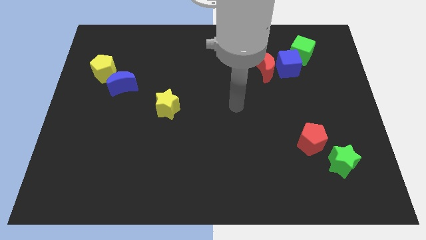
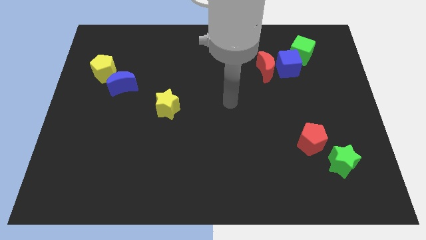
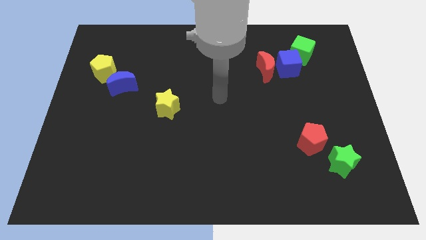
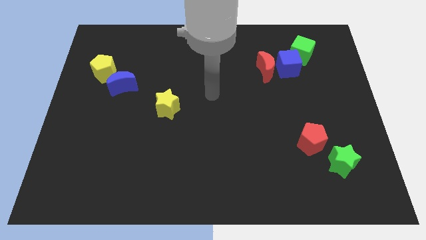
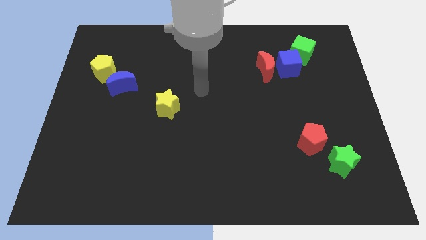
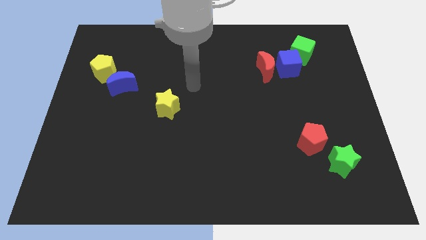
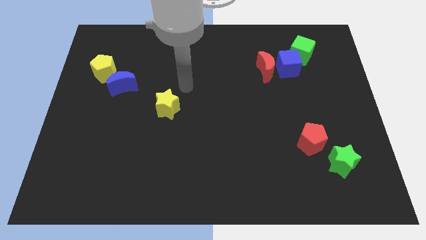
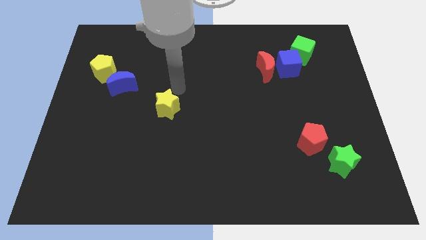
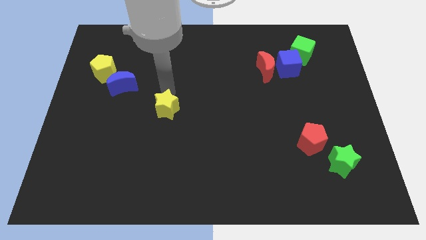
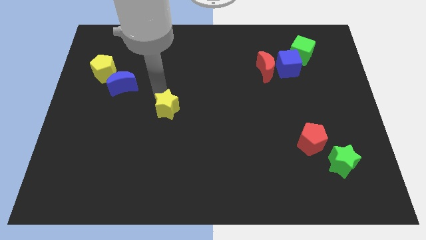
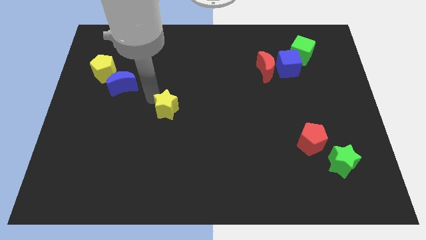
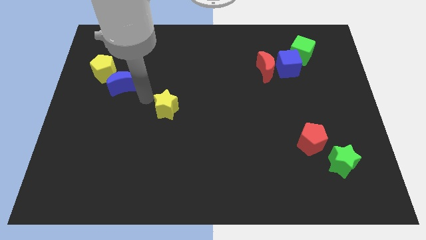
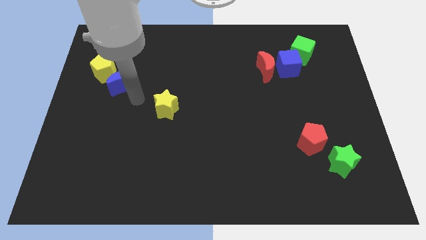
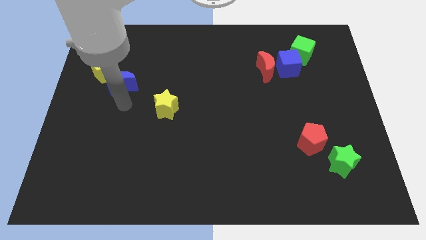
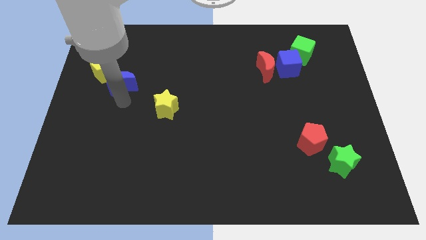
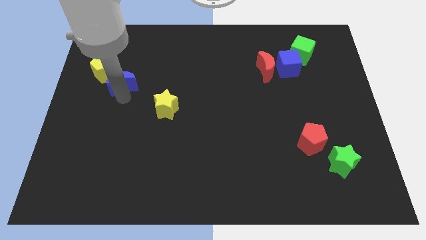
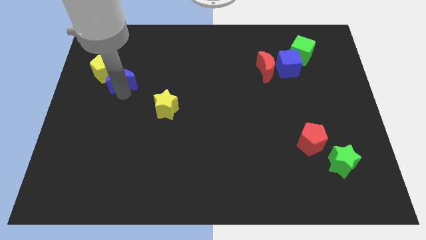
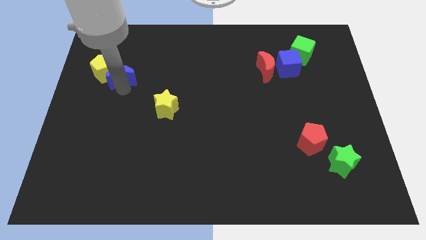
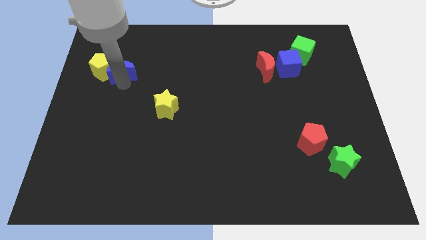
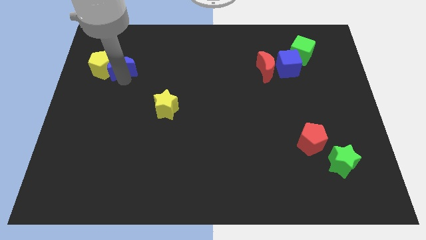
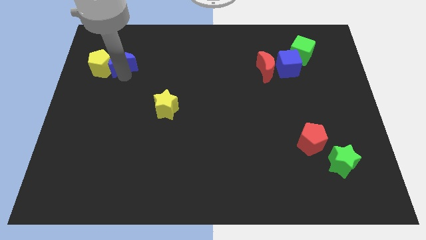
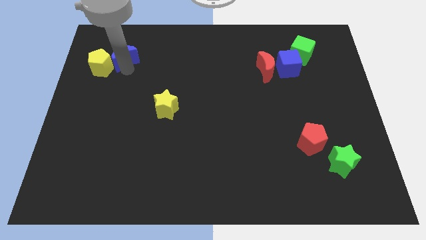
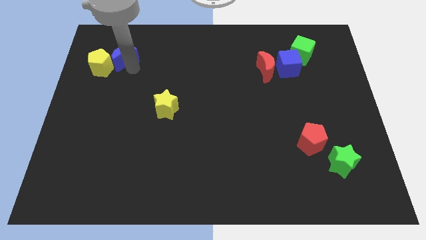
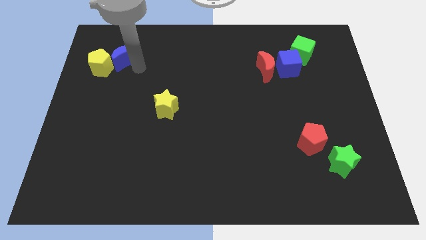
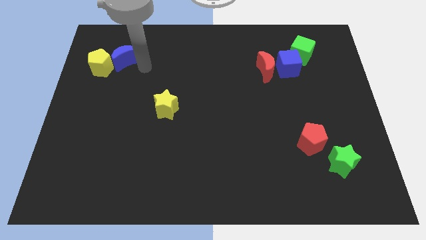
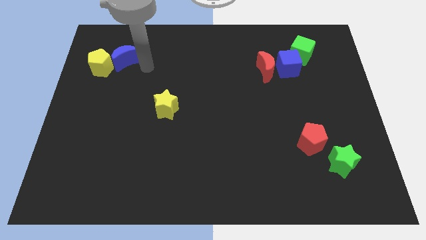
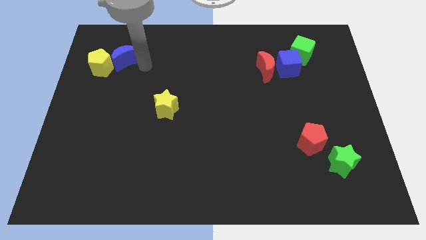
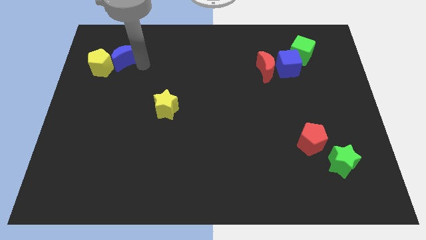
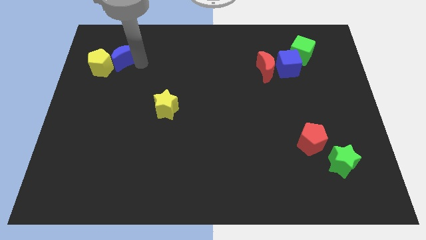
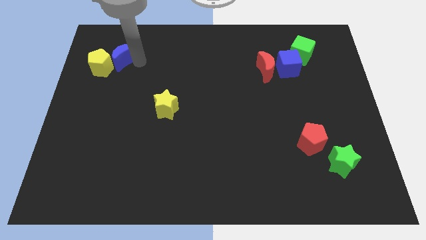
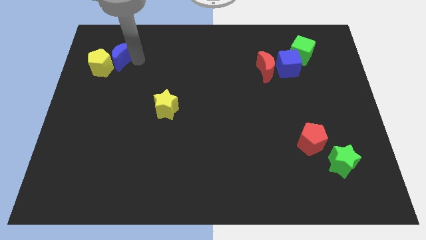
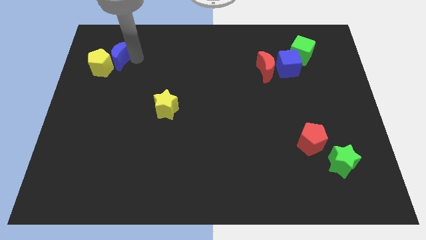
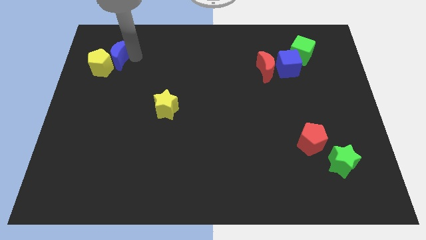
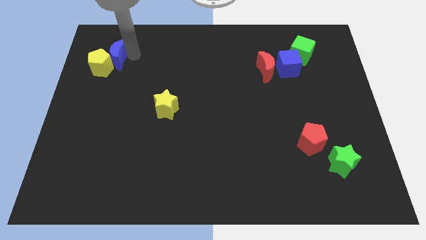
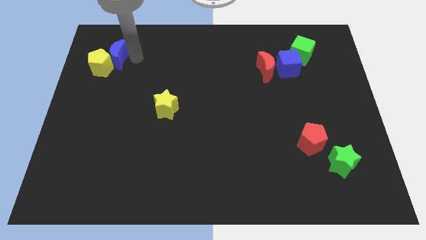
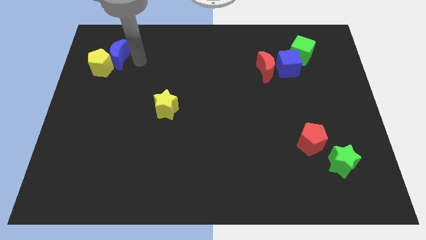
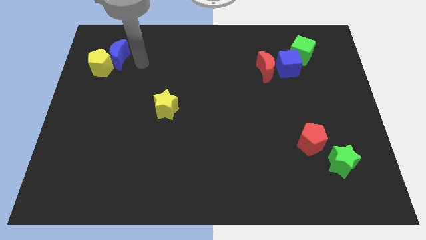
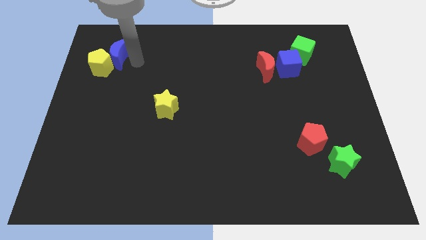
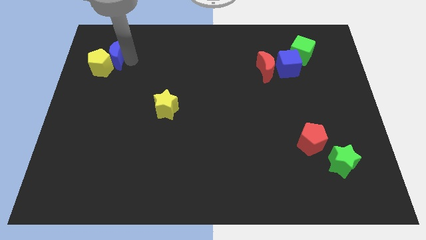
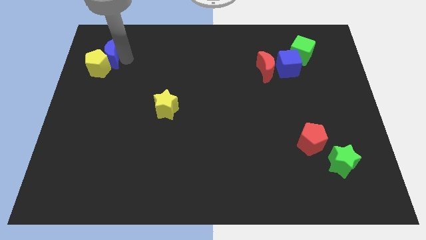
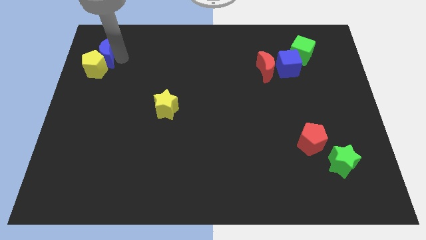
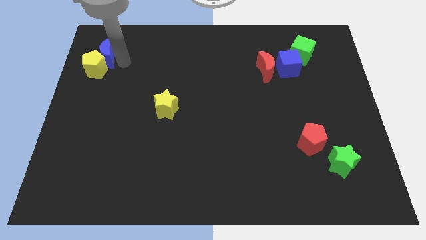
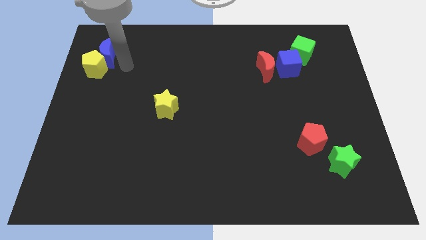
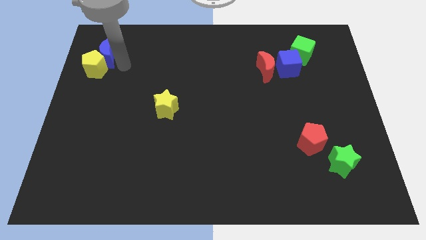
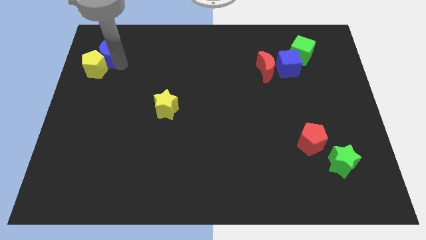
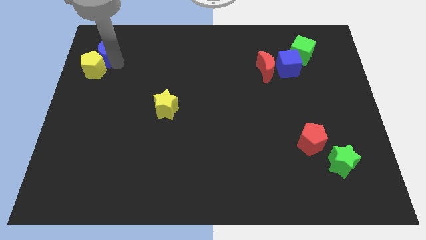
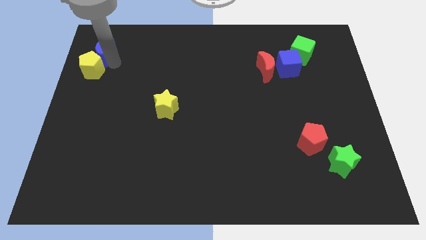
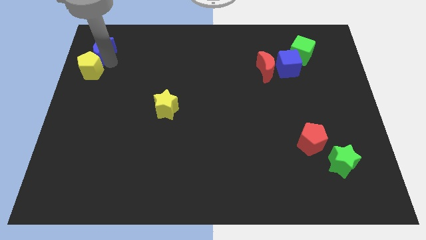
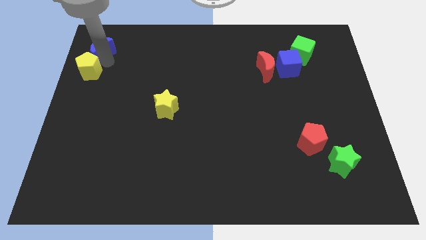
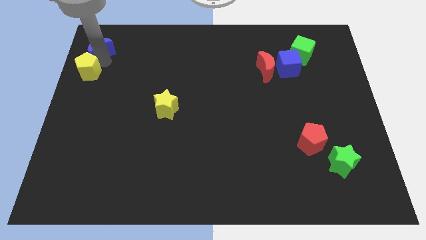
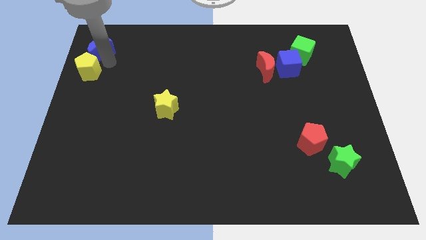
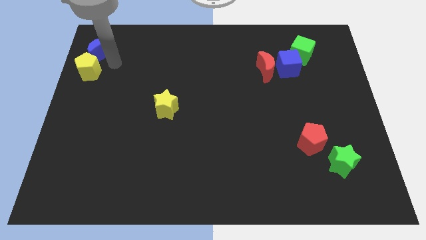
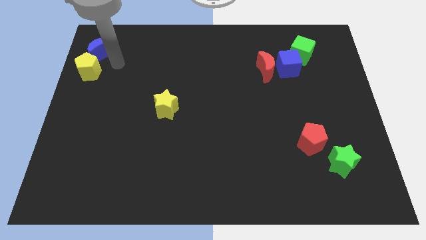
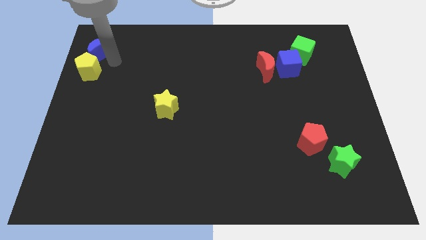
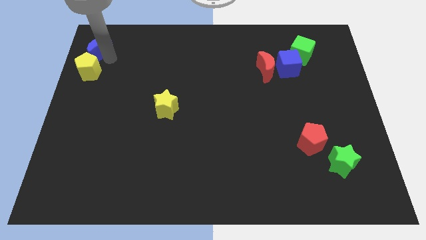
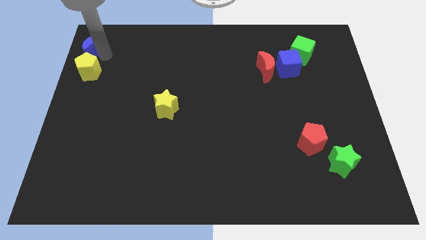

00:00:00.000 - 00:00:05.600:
move the blue moon to the top left corner

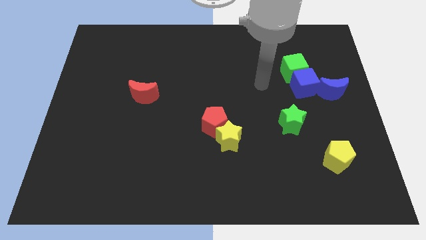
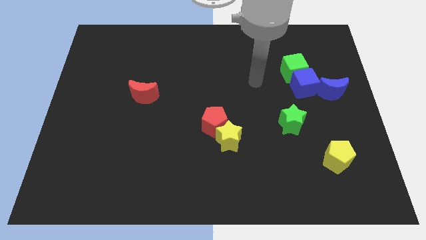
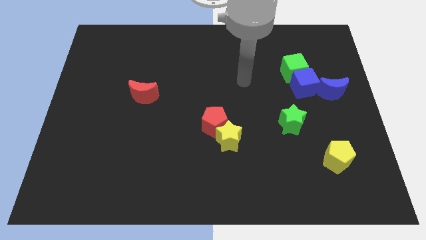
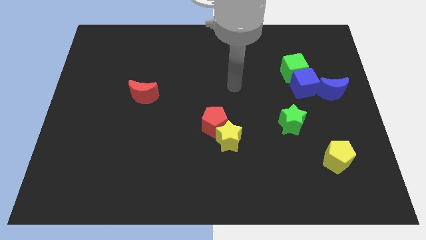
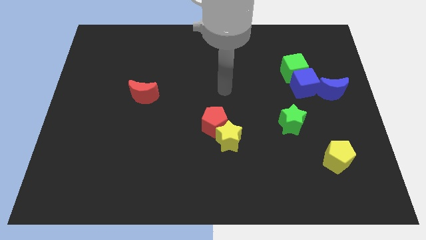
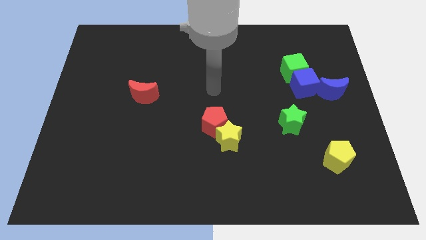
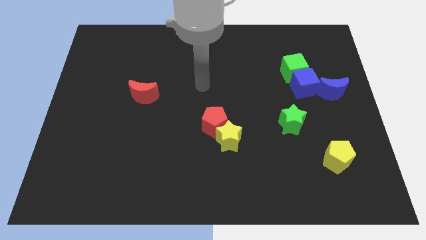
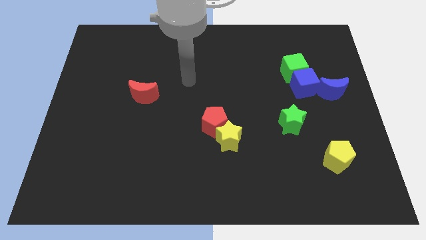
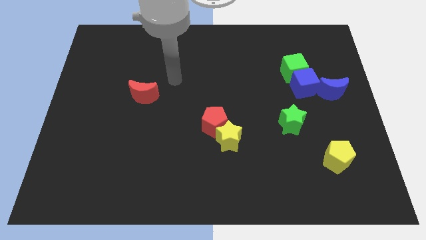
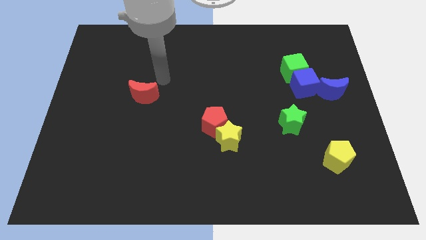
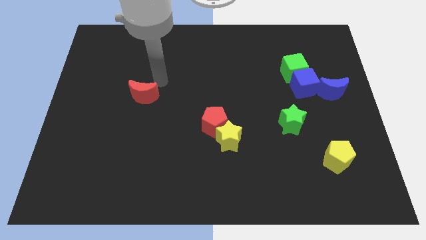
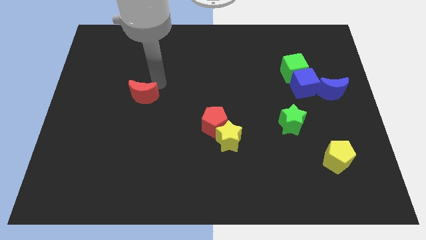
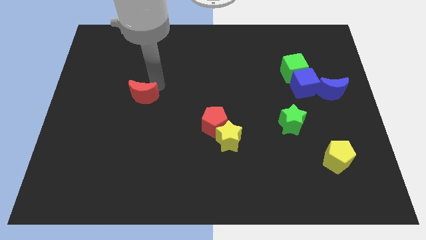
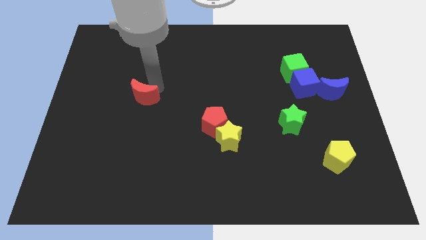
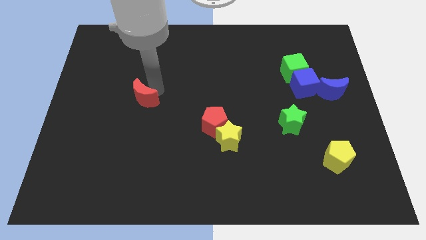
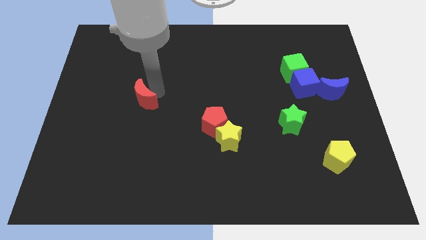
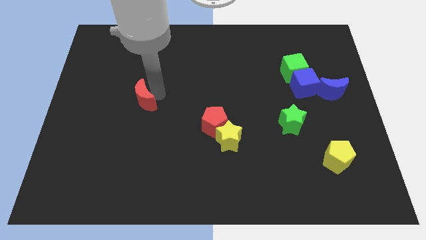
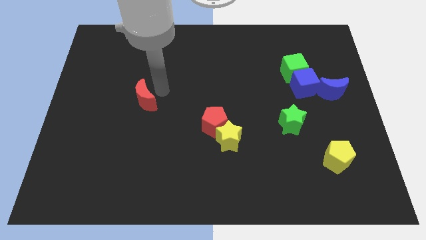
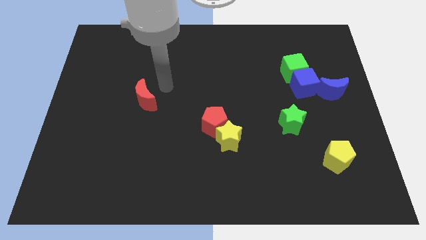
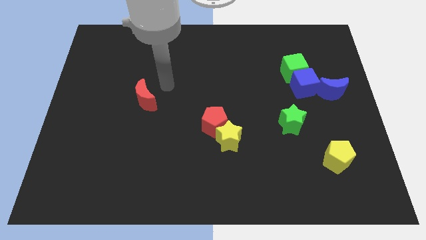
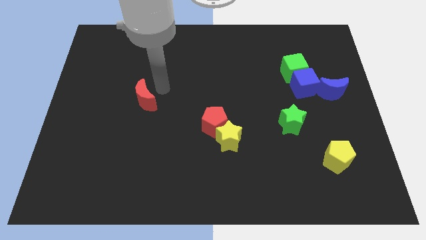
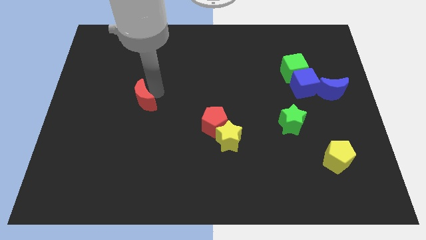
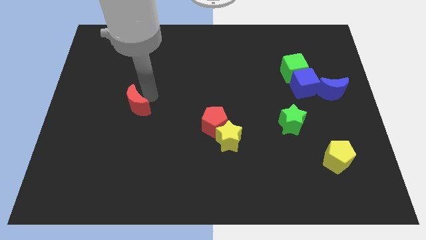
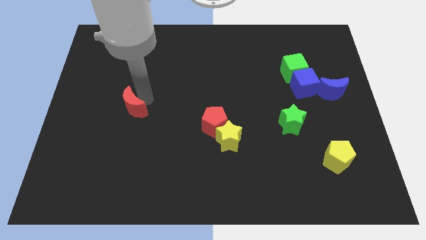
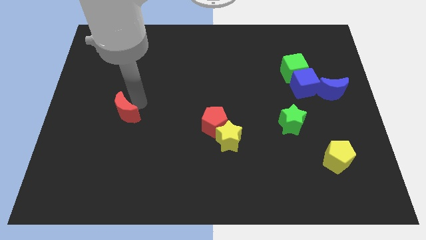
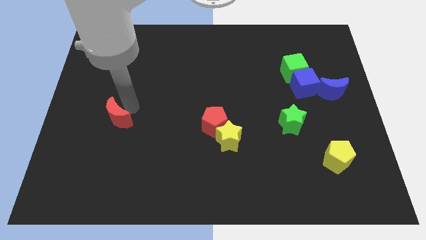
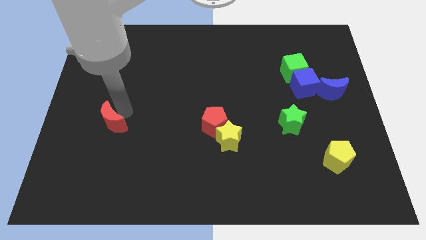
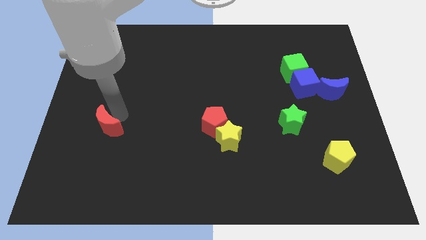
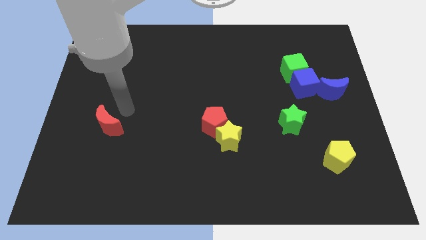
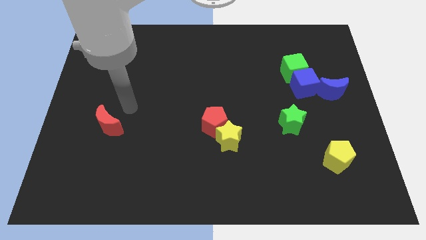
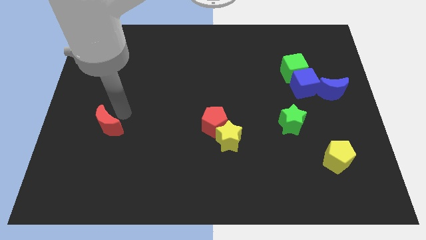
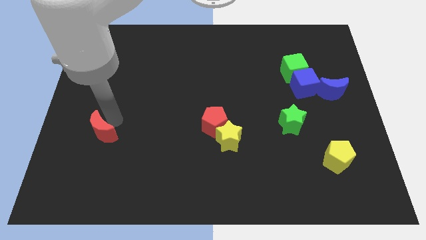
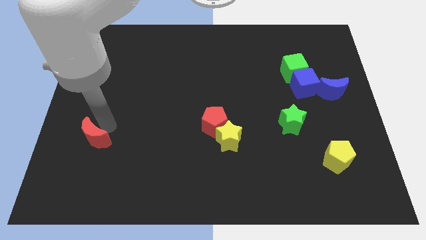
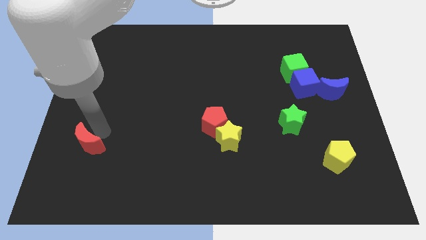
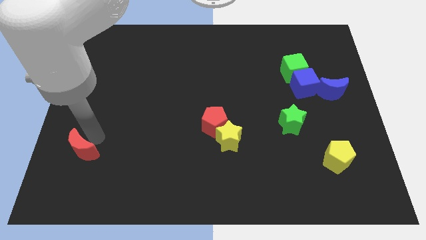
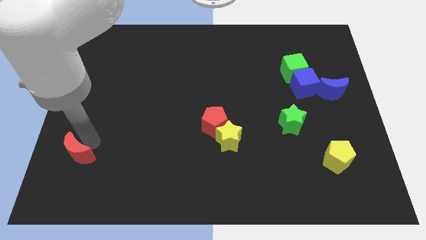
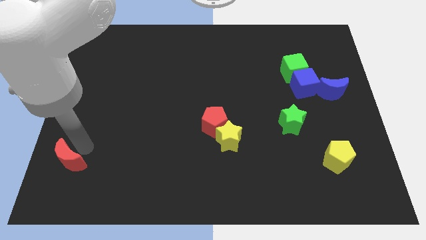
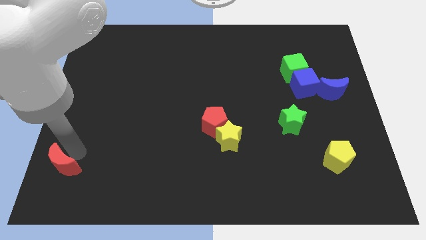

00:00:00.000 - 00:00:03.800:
push the red moon to the bottom left corner
